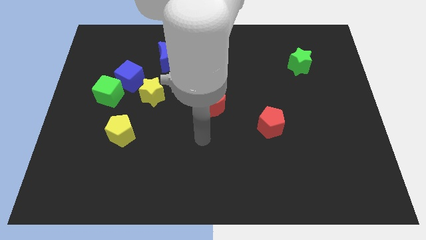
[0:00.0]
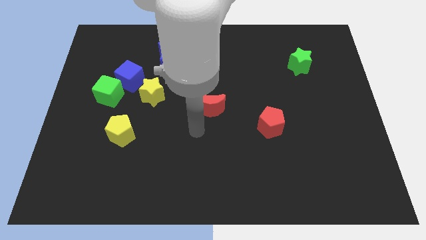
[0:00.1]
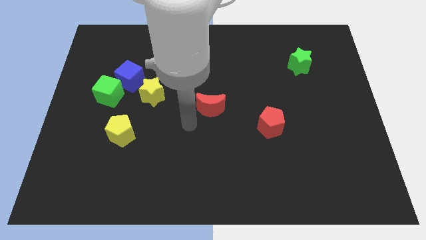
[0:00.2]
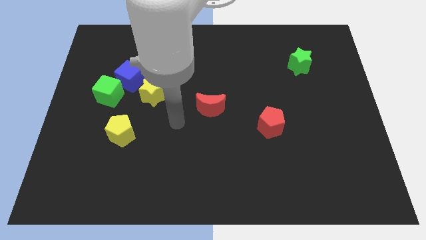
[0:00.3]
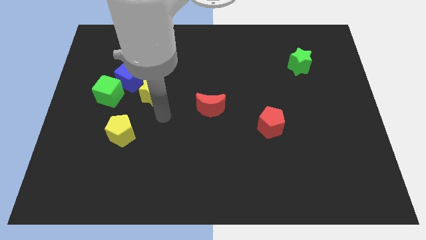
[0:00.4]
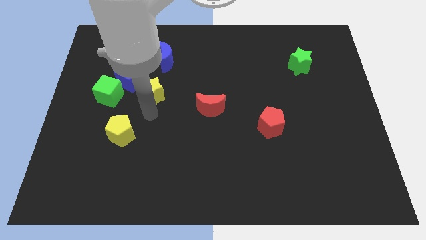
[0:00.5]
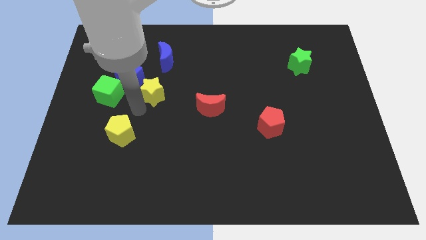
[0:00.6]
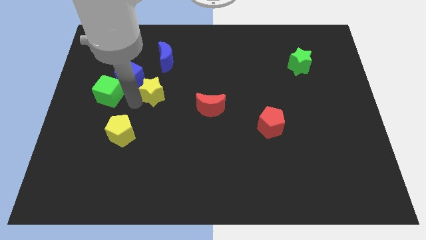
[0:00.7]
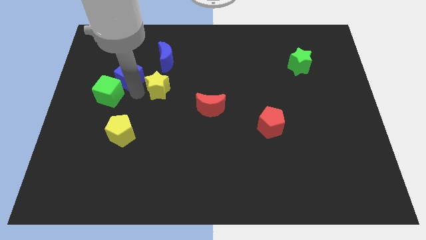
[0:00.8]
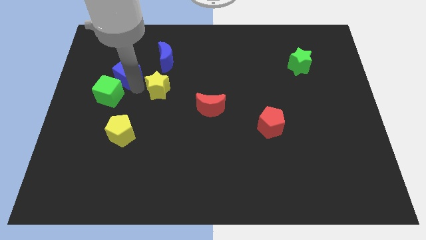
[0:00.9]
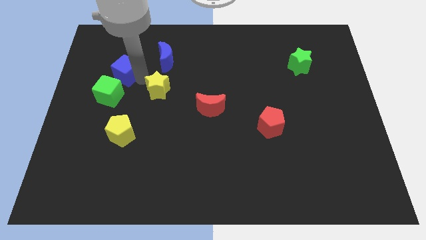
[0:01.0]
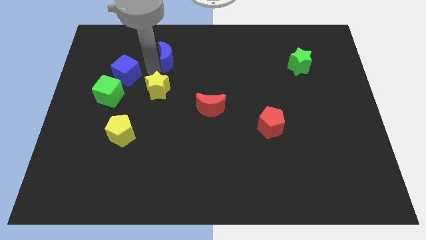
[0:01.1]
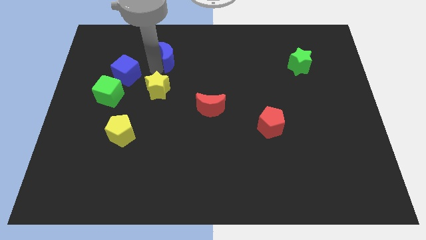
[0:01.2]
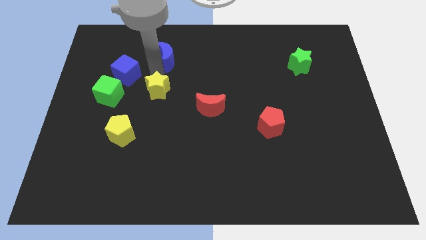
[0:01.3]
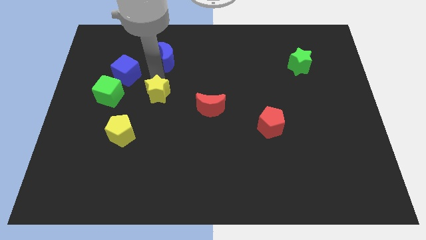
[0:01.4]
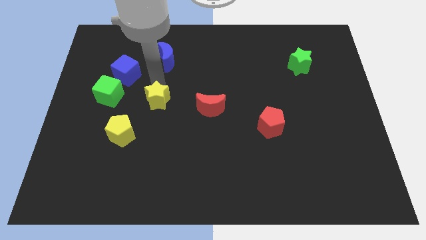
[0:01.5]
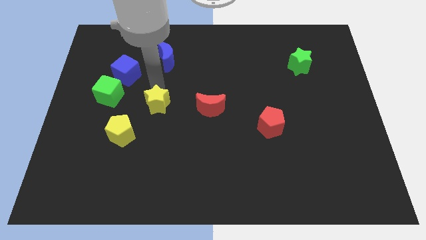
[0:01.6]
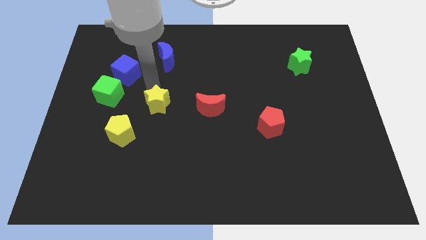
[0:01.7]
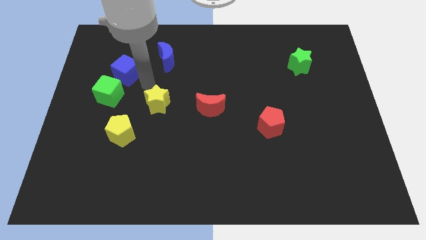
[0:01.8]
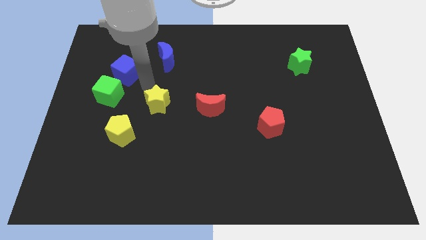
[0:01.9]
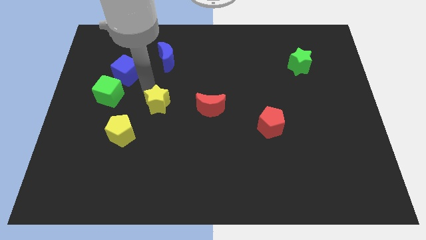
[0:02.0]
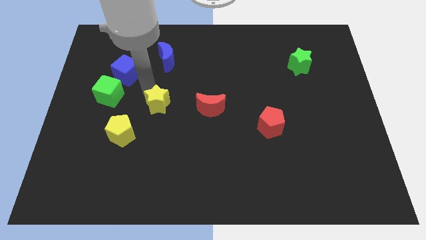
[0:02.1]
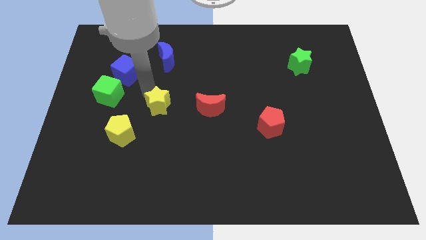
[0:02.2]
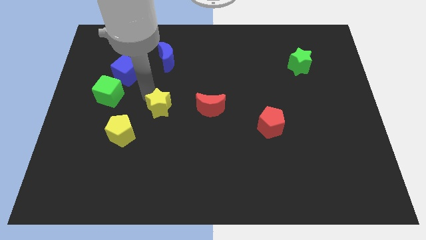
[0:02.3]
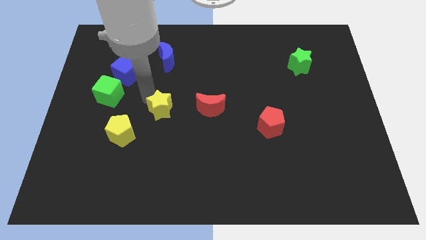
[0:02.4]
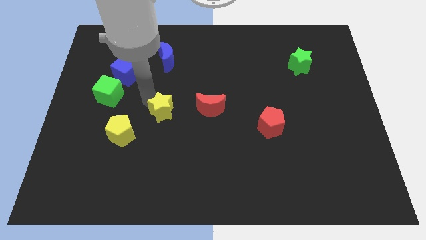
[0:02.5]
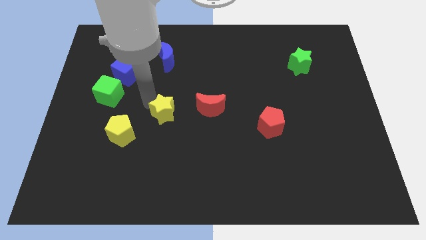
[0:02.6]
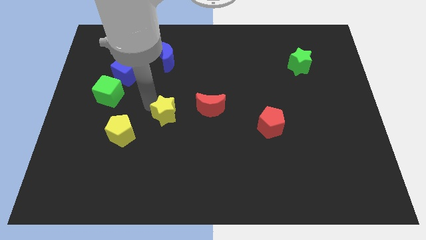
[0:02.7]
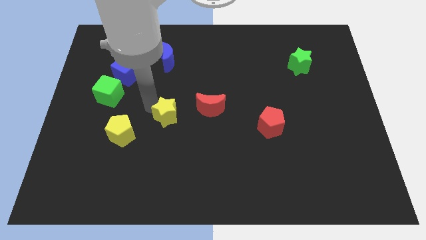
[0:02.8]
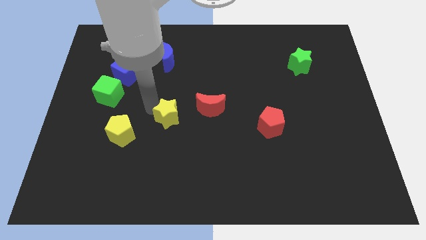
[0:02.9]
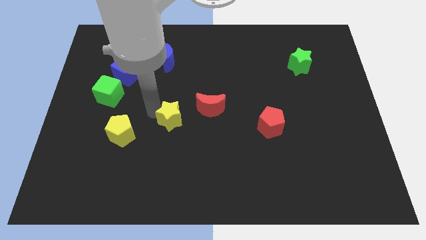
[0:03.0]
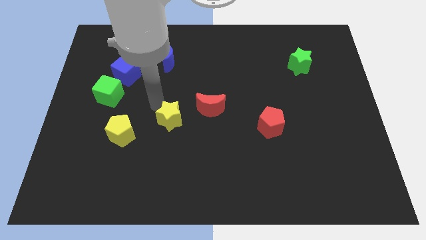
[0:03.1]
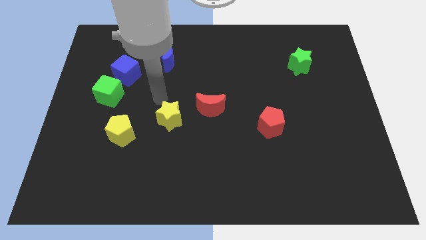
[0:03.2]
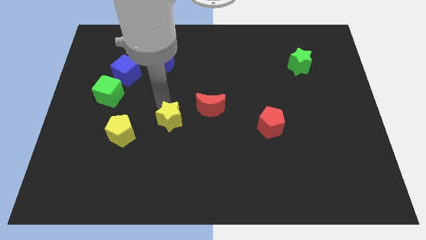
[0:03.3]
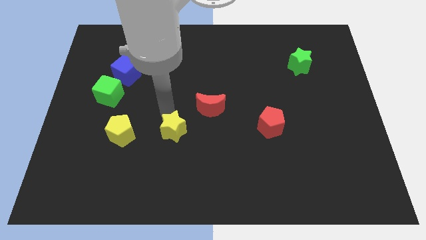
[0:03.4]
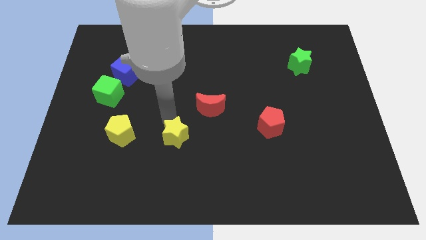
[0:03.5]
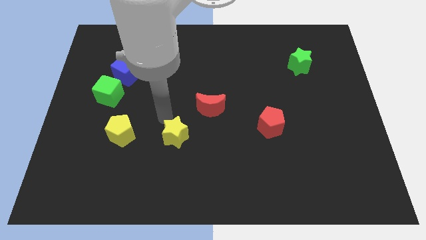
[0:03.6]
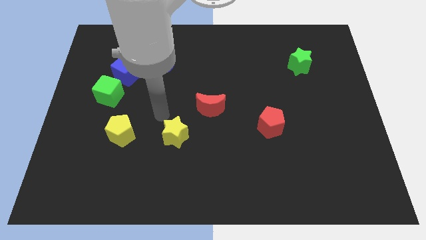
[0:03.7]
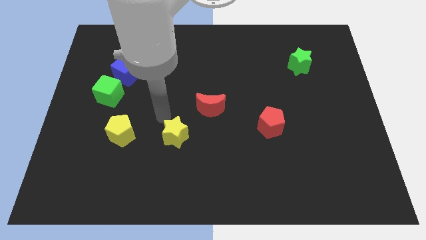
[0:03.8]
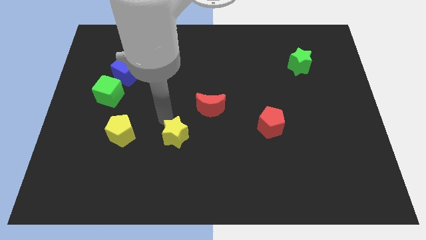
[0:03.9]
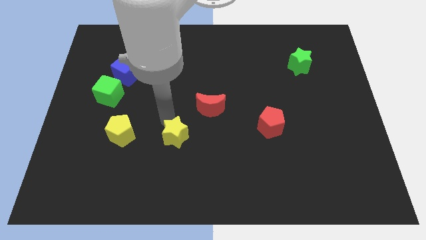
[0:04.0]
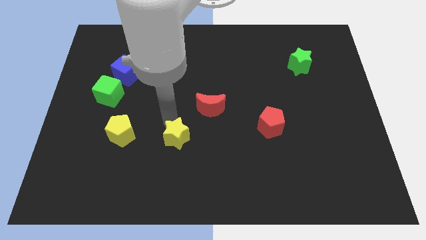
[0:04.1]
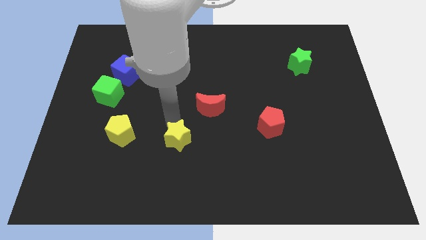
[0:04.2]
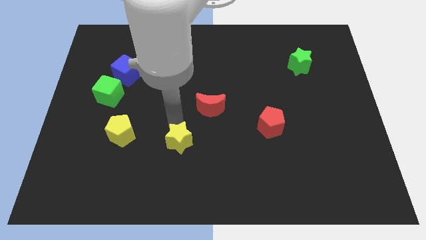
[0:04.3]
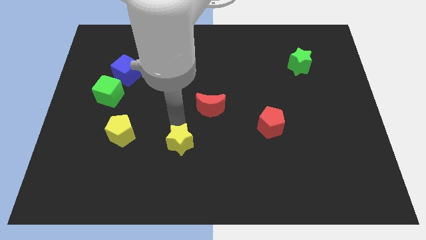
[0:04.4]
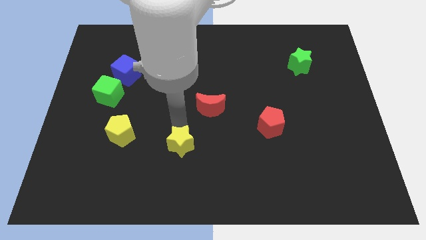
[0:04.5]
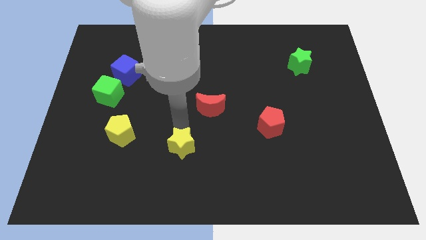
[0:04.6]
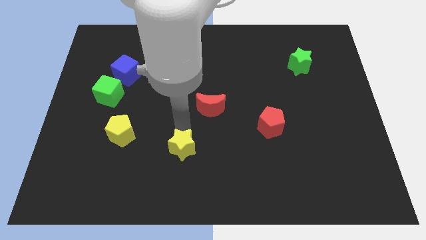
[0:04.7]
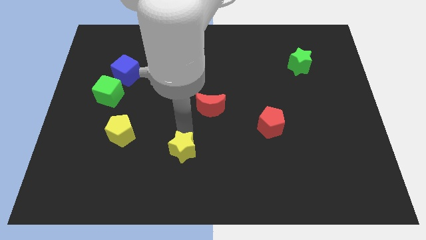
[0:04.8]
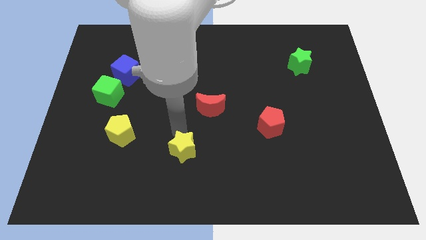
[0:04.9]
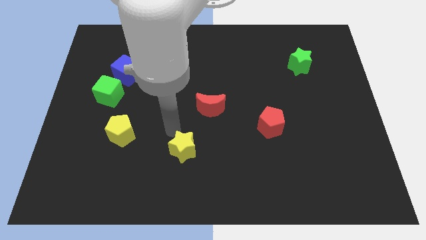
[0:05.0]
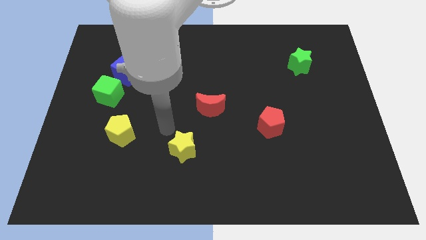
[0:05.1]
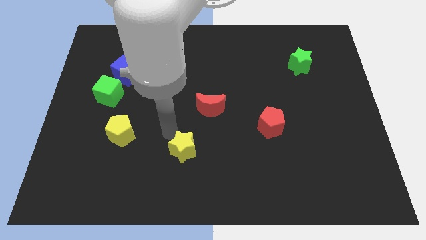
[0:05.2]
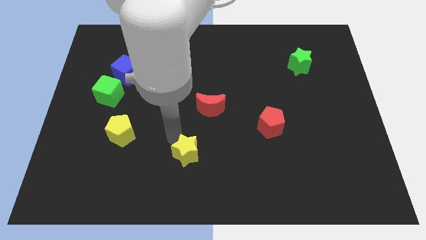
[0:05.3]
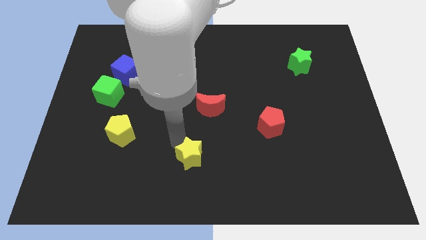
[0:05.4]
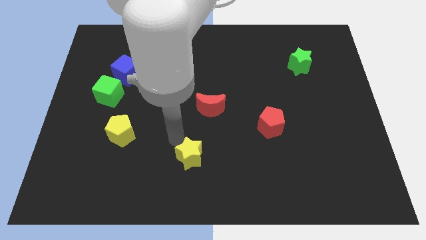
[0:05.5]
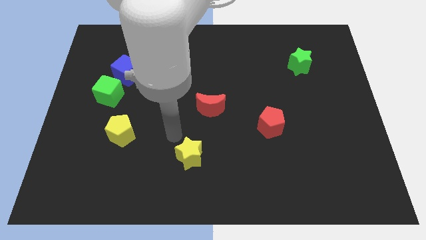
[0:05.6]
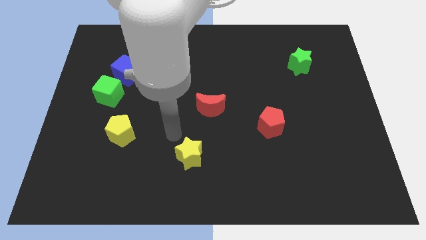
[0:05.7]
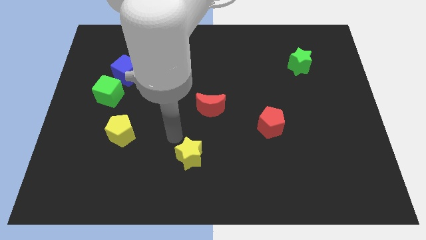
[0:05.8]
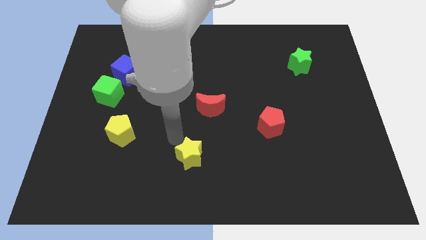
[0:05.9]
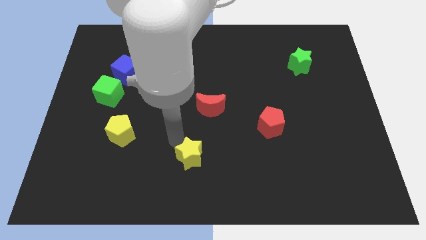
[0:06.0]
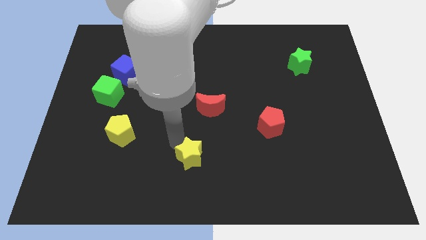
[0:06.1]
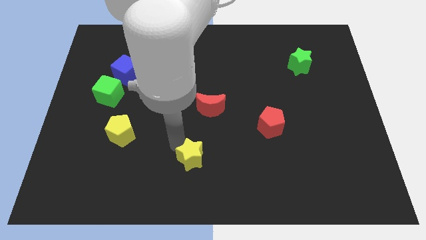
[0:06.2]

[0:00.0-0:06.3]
move the yellow star to the bottom side
